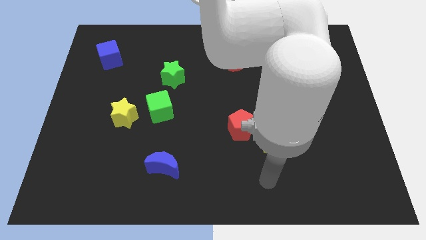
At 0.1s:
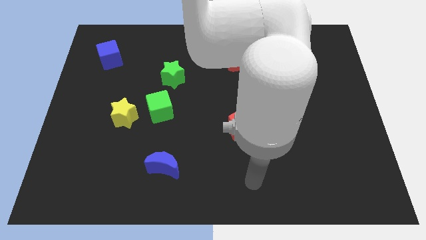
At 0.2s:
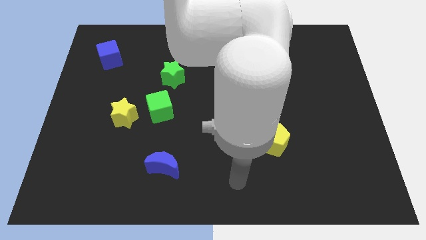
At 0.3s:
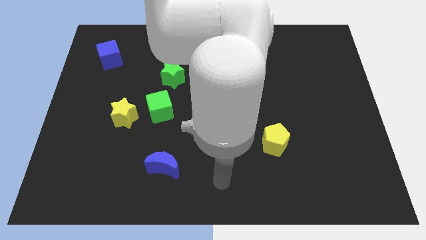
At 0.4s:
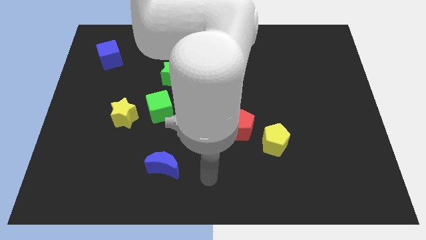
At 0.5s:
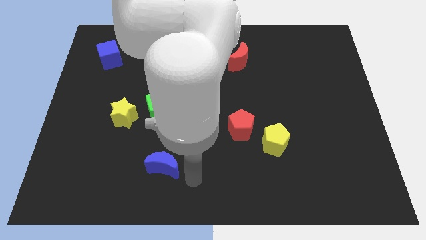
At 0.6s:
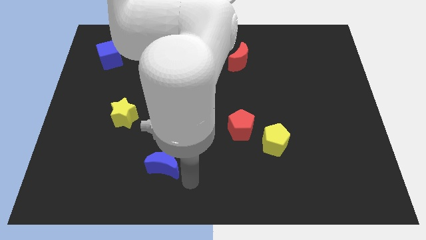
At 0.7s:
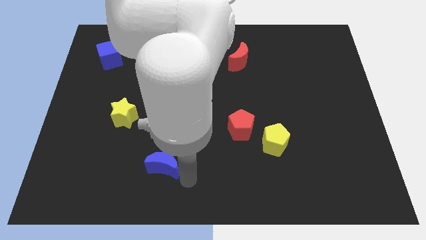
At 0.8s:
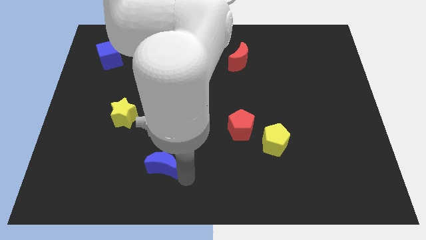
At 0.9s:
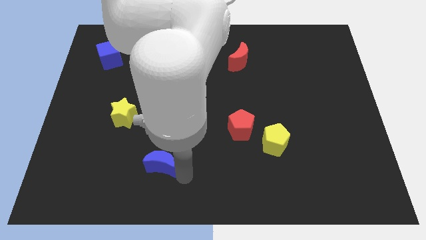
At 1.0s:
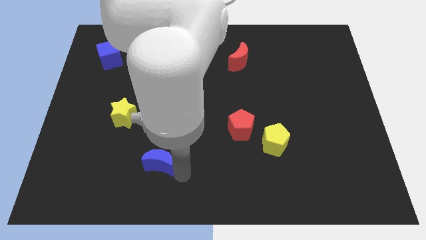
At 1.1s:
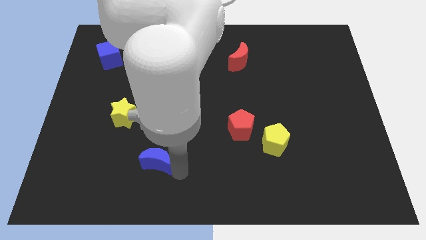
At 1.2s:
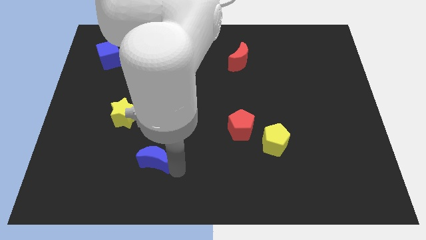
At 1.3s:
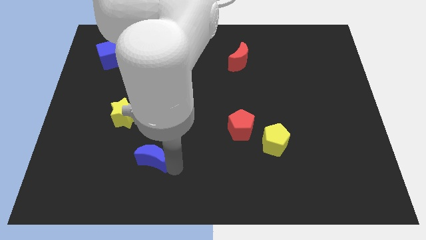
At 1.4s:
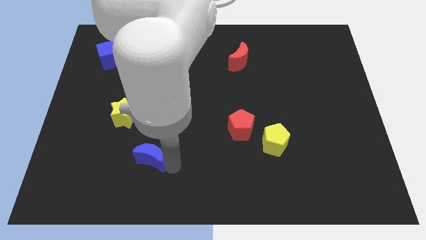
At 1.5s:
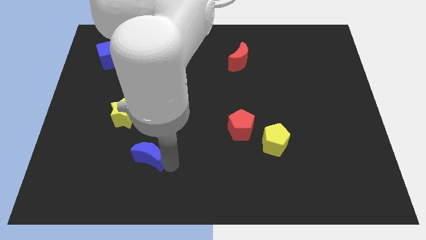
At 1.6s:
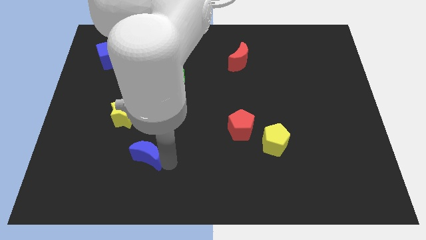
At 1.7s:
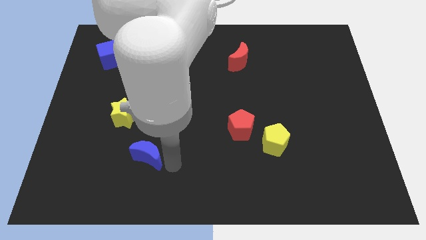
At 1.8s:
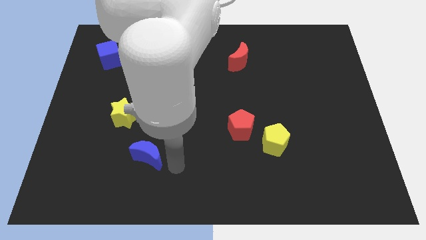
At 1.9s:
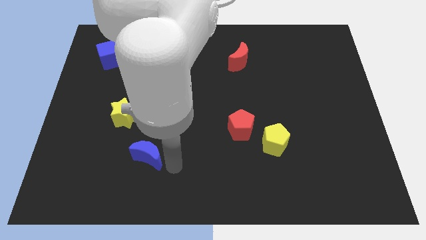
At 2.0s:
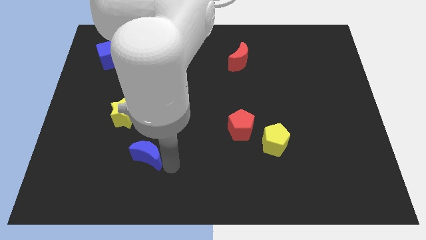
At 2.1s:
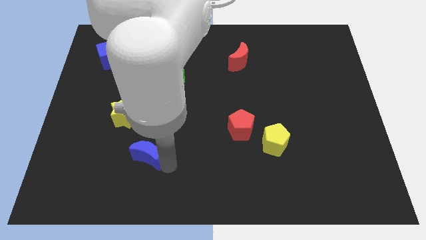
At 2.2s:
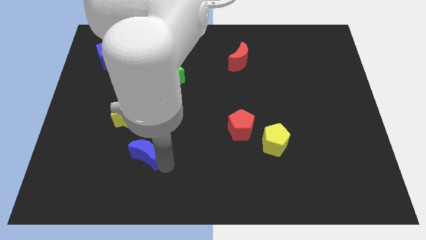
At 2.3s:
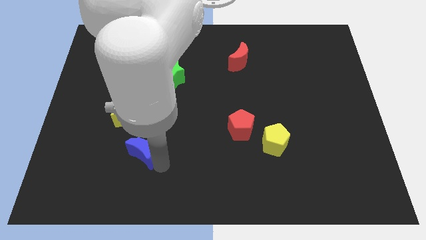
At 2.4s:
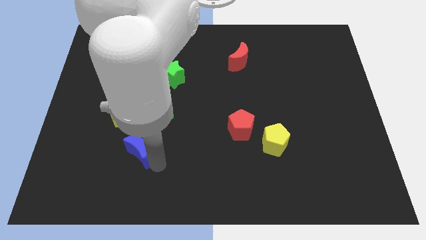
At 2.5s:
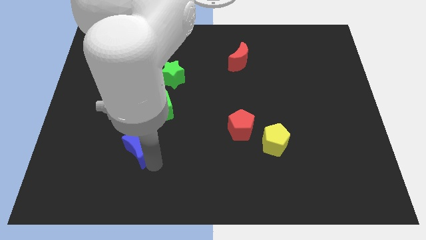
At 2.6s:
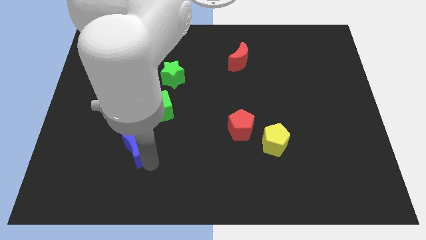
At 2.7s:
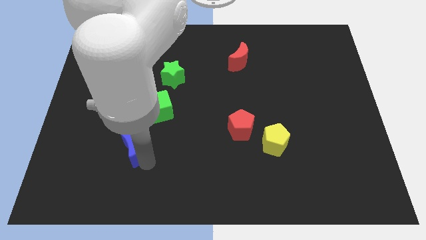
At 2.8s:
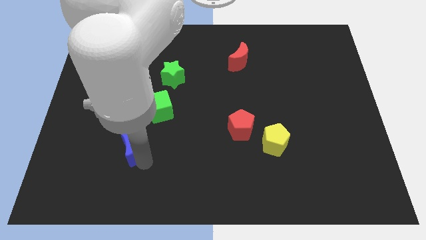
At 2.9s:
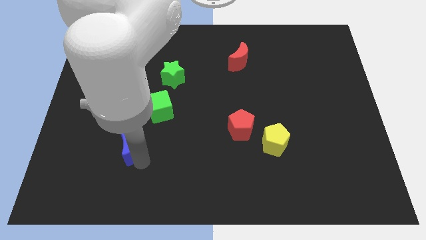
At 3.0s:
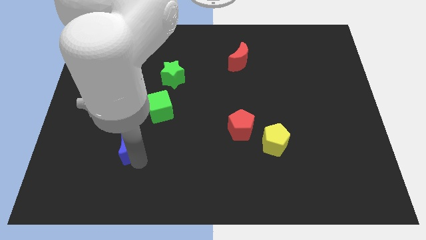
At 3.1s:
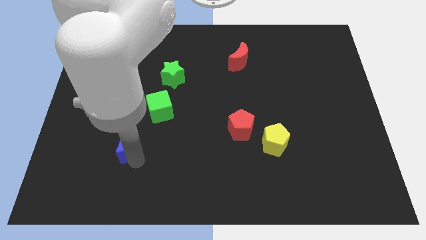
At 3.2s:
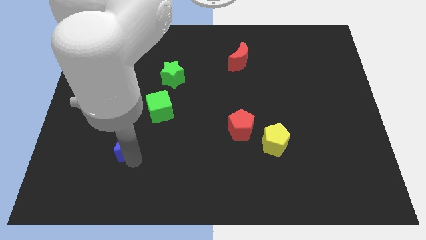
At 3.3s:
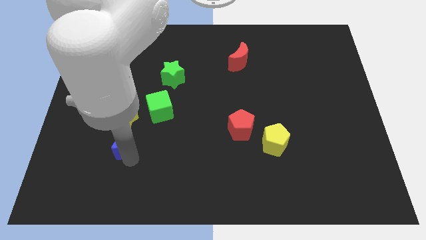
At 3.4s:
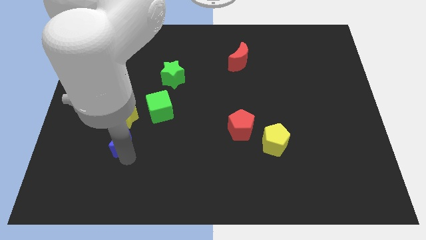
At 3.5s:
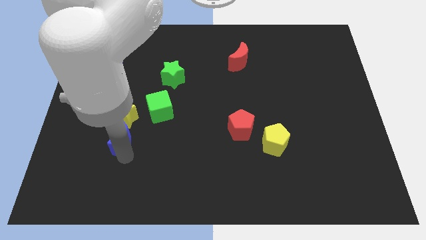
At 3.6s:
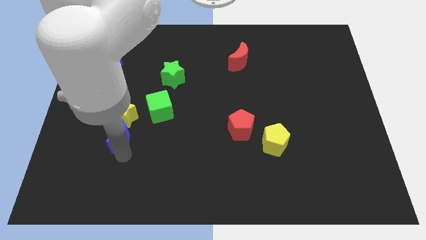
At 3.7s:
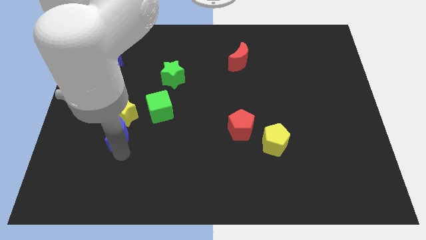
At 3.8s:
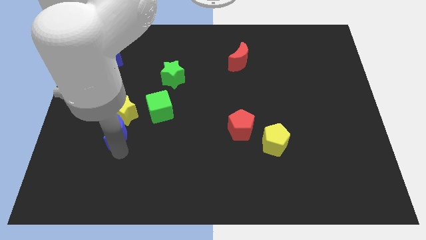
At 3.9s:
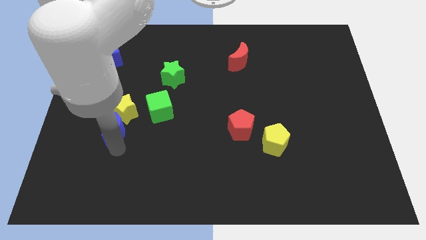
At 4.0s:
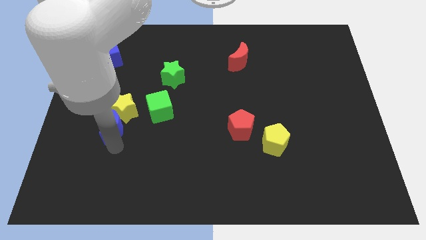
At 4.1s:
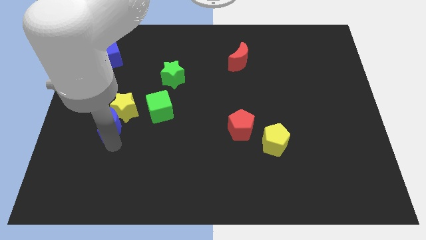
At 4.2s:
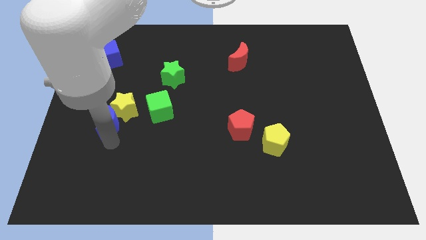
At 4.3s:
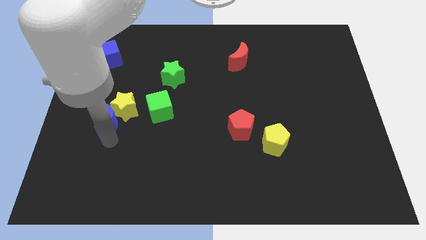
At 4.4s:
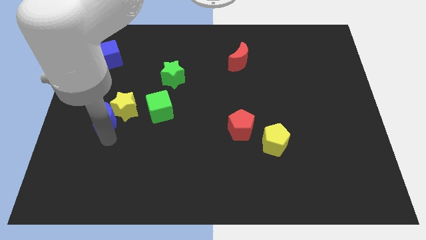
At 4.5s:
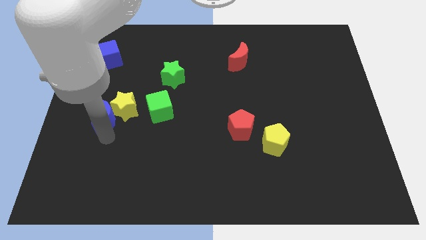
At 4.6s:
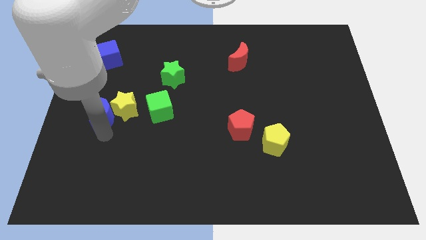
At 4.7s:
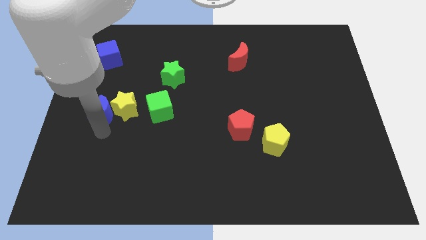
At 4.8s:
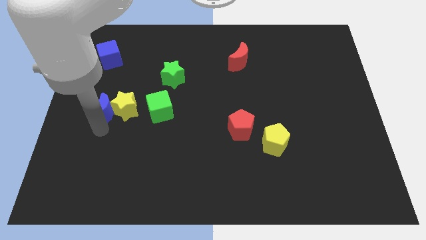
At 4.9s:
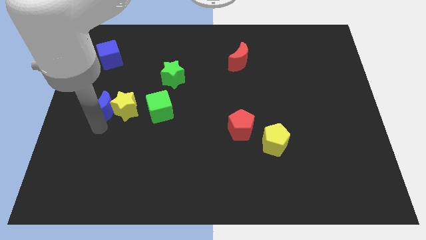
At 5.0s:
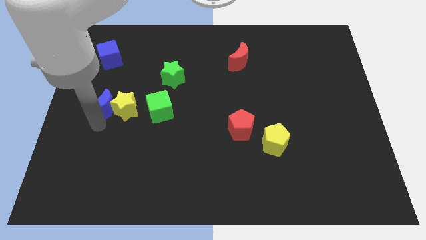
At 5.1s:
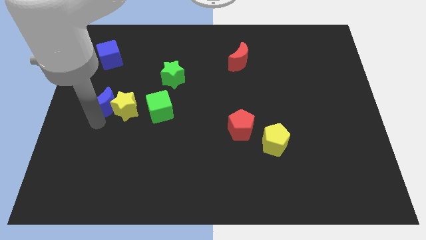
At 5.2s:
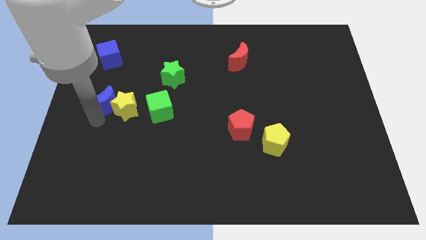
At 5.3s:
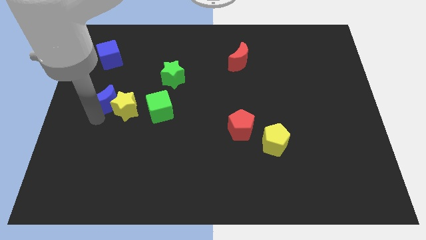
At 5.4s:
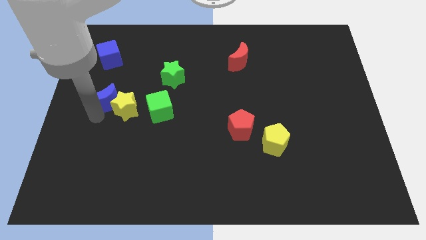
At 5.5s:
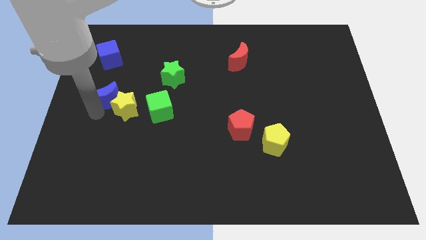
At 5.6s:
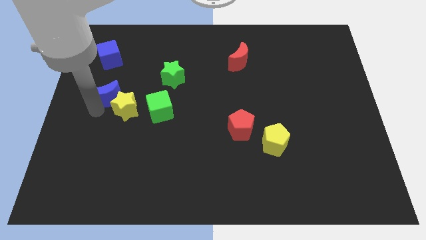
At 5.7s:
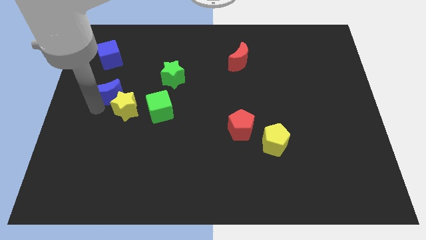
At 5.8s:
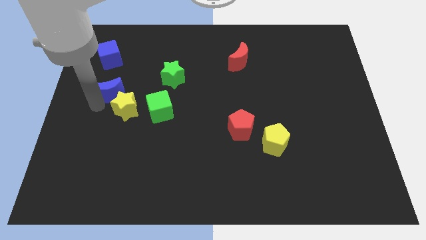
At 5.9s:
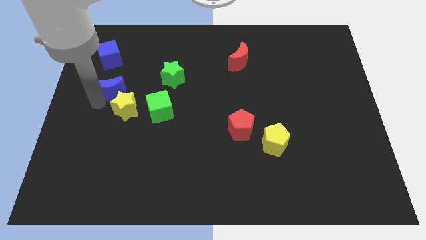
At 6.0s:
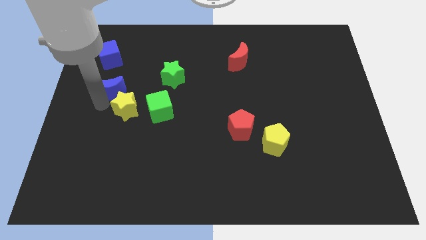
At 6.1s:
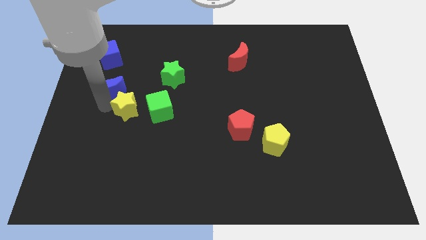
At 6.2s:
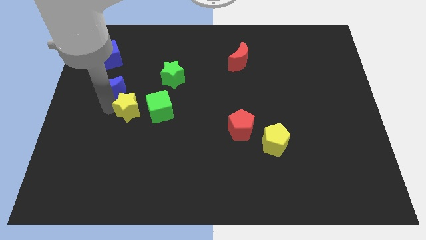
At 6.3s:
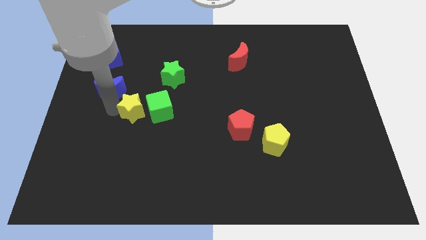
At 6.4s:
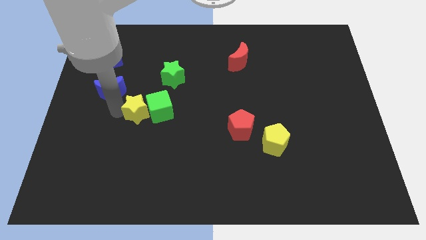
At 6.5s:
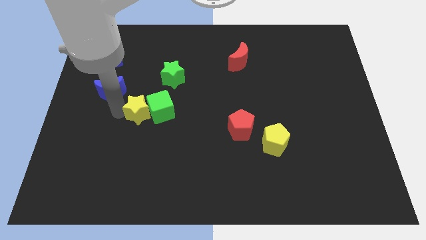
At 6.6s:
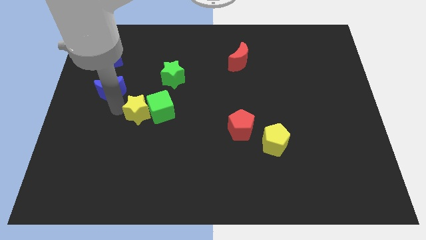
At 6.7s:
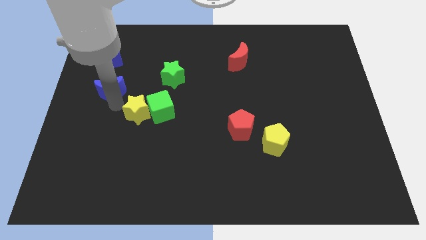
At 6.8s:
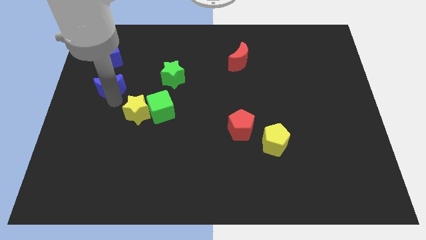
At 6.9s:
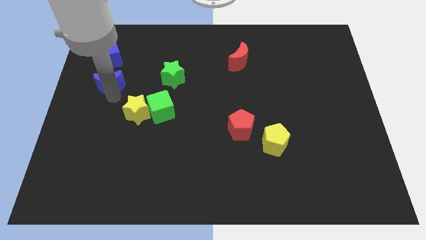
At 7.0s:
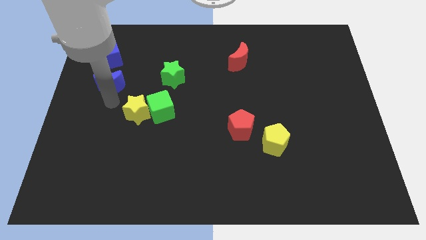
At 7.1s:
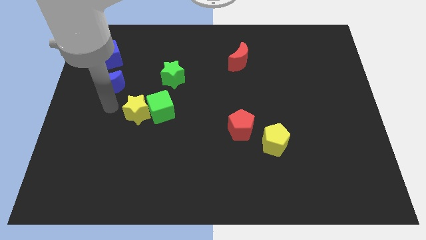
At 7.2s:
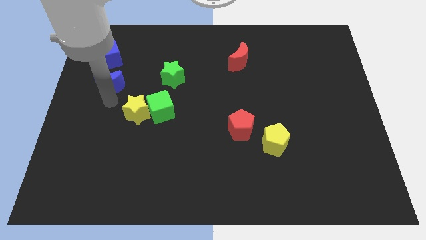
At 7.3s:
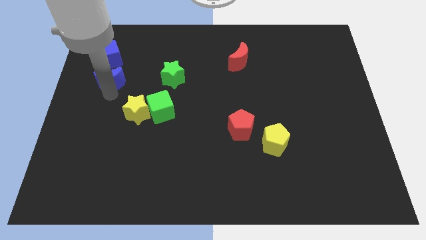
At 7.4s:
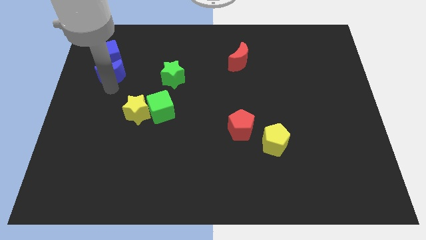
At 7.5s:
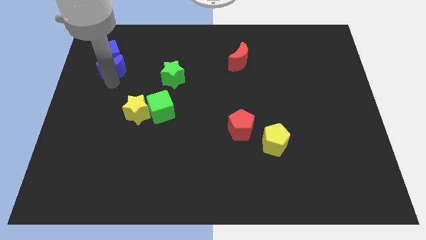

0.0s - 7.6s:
move the blue moon to the blue cube
